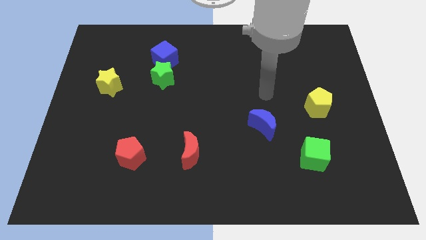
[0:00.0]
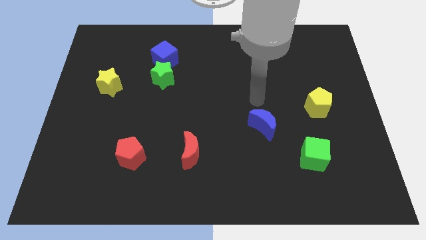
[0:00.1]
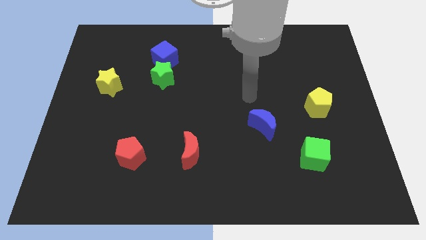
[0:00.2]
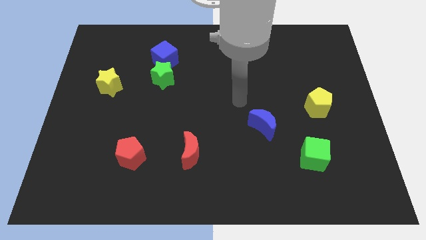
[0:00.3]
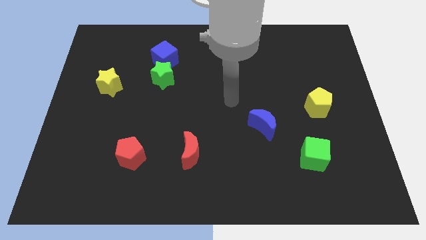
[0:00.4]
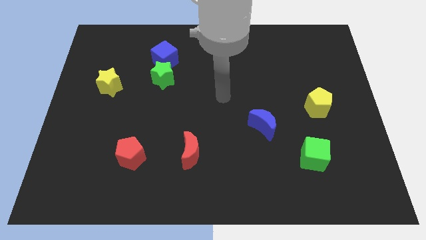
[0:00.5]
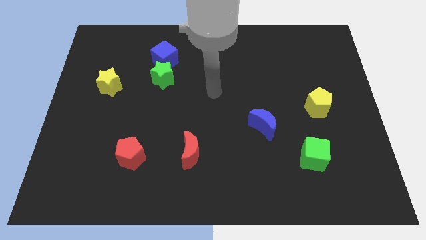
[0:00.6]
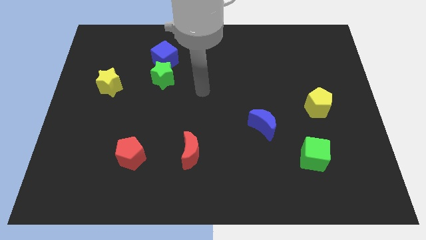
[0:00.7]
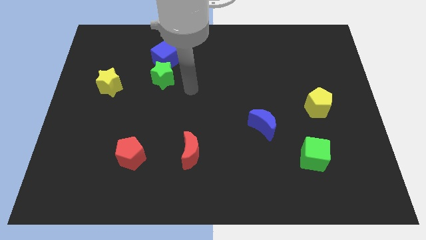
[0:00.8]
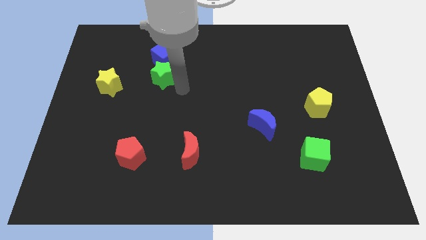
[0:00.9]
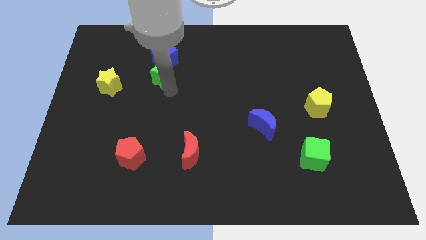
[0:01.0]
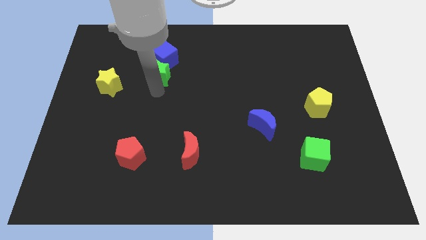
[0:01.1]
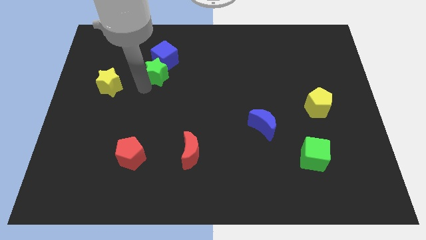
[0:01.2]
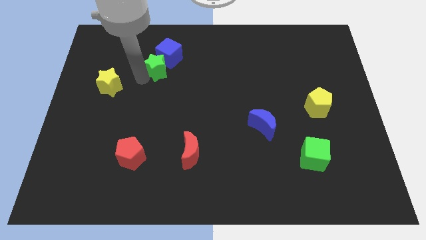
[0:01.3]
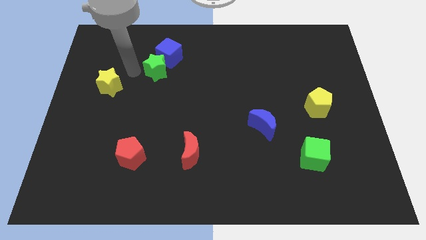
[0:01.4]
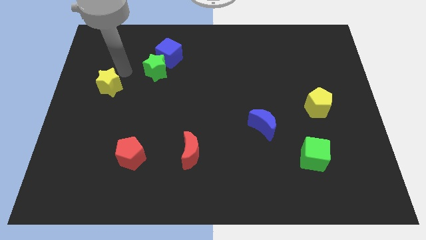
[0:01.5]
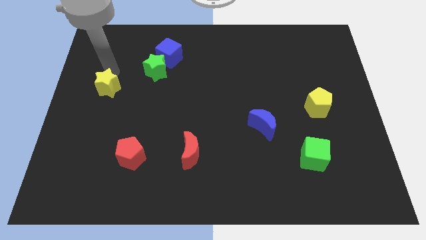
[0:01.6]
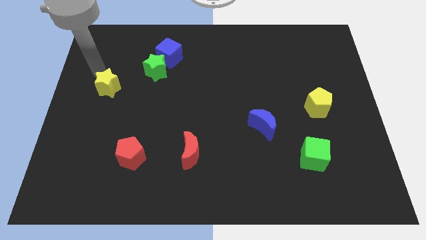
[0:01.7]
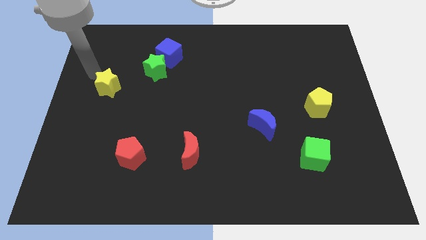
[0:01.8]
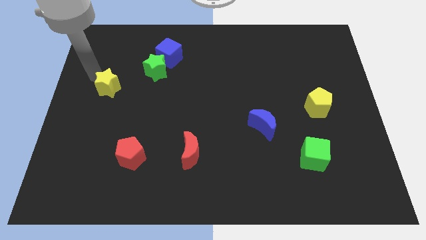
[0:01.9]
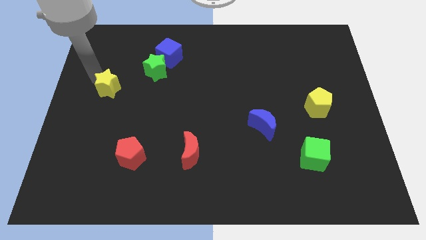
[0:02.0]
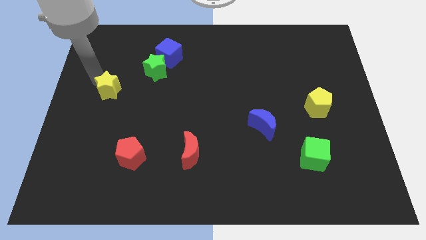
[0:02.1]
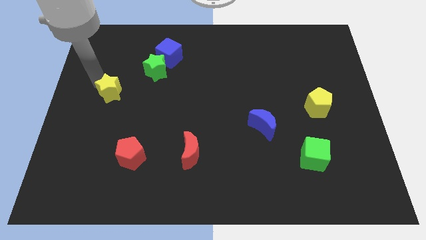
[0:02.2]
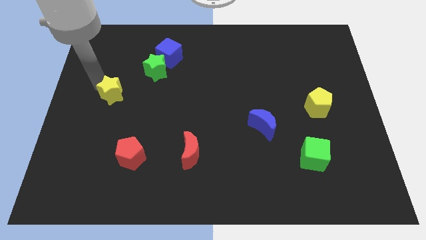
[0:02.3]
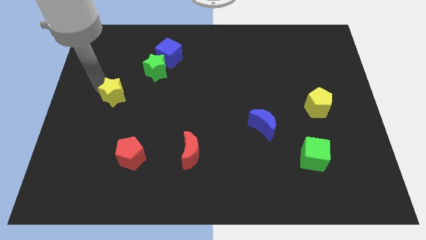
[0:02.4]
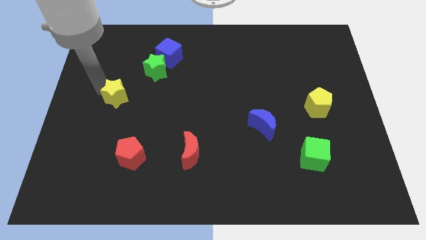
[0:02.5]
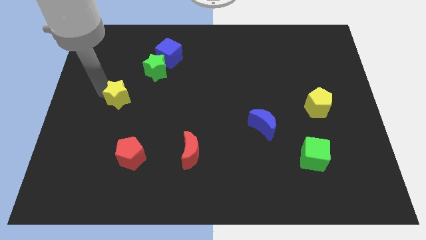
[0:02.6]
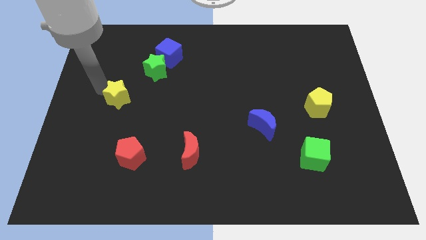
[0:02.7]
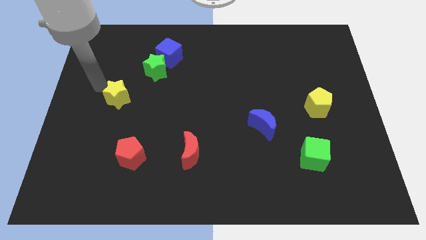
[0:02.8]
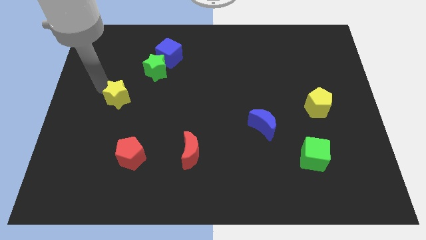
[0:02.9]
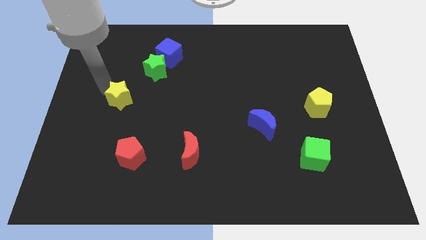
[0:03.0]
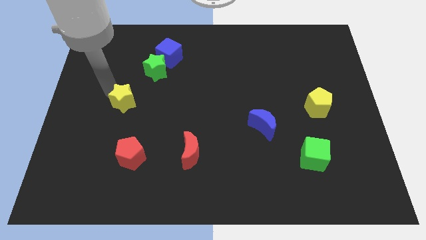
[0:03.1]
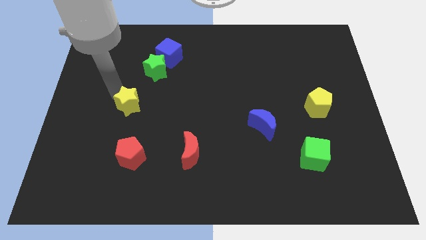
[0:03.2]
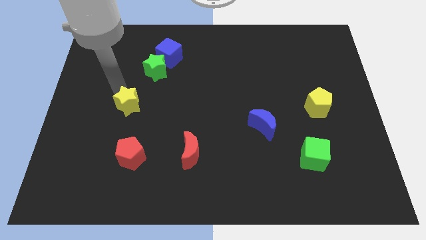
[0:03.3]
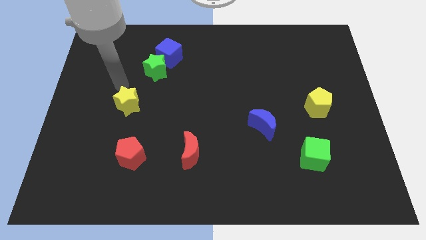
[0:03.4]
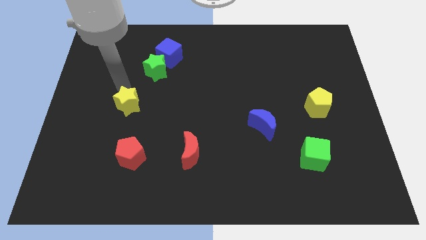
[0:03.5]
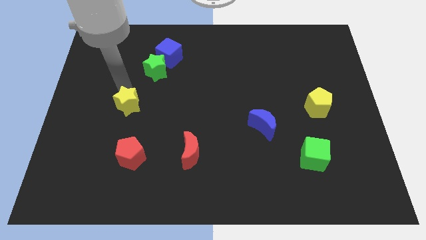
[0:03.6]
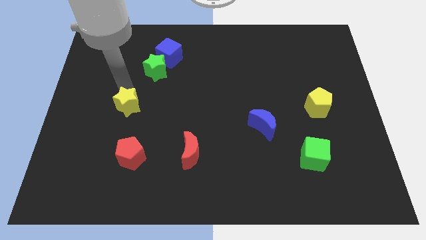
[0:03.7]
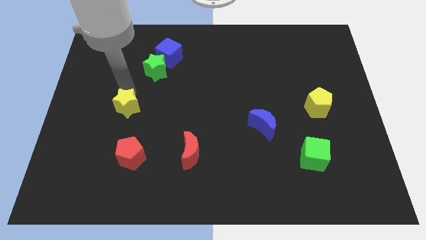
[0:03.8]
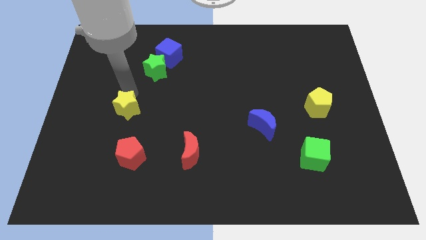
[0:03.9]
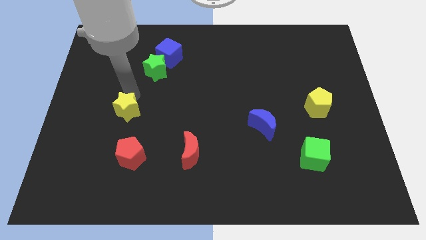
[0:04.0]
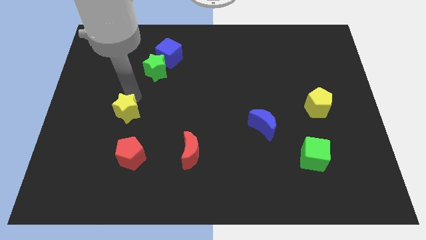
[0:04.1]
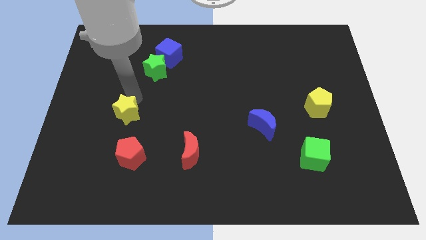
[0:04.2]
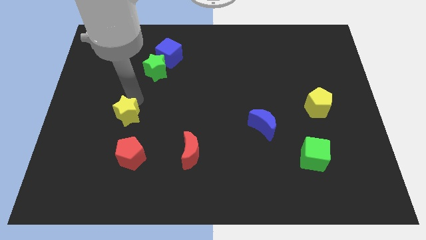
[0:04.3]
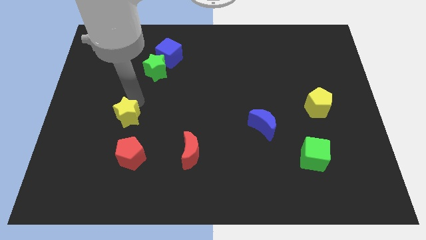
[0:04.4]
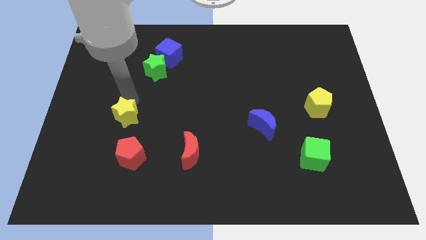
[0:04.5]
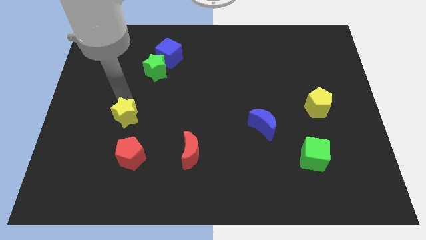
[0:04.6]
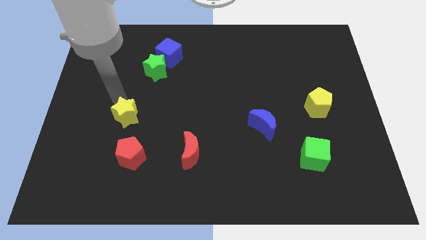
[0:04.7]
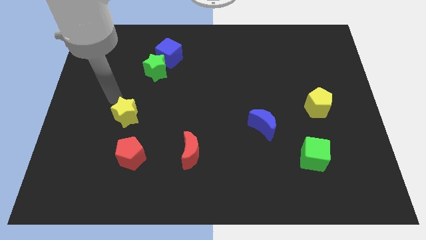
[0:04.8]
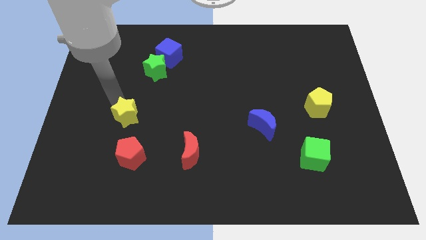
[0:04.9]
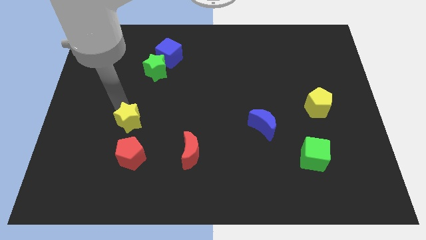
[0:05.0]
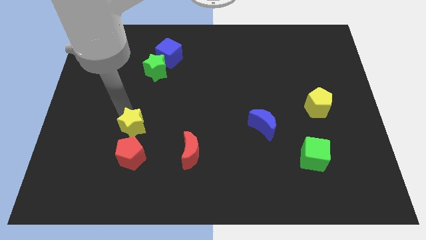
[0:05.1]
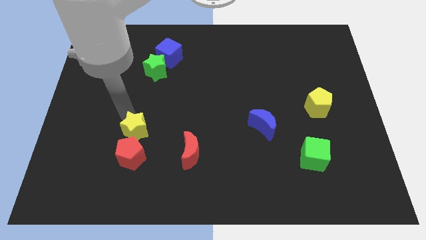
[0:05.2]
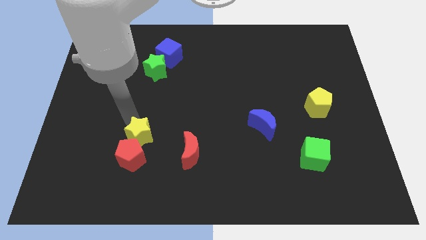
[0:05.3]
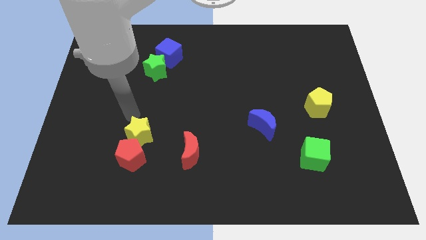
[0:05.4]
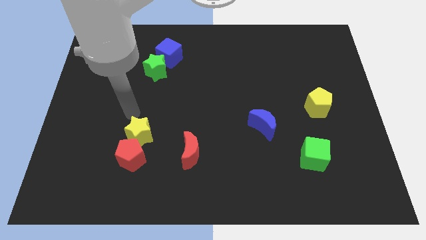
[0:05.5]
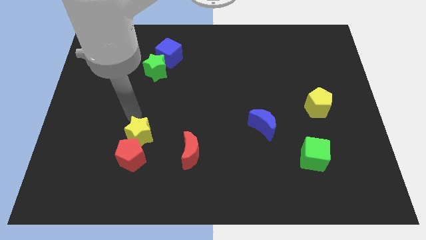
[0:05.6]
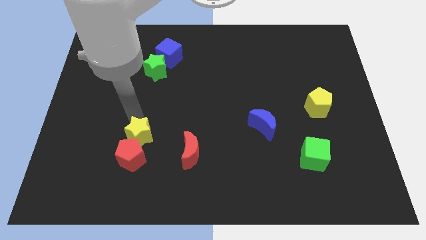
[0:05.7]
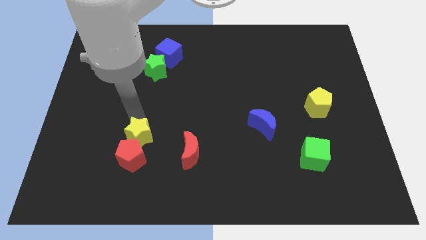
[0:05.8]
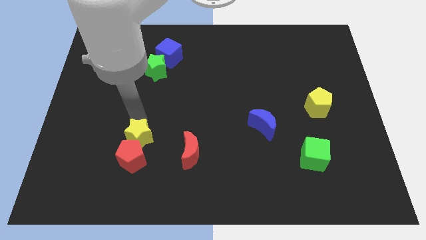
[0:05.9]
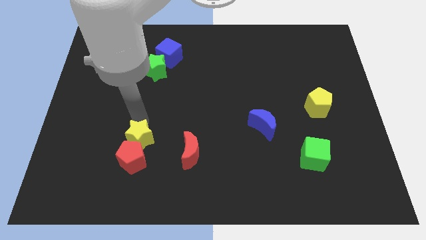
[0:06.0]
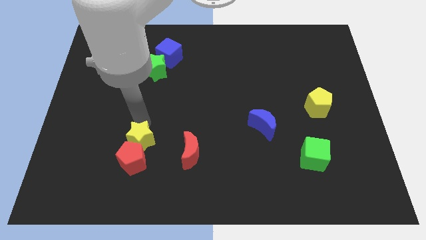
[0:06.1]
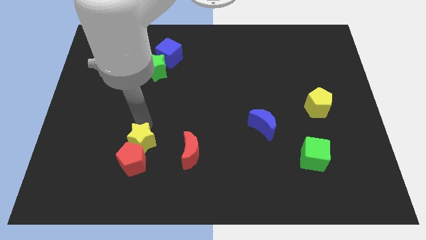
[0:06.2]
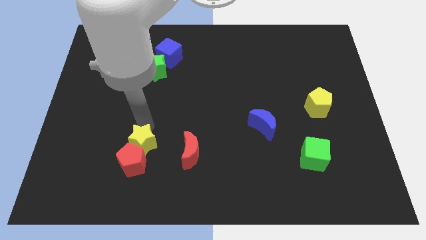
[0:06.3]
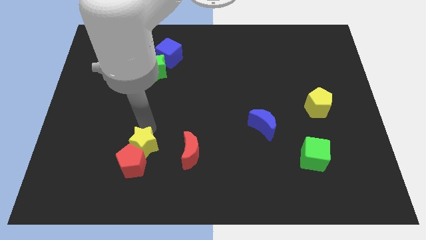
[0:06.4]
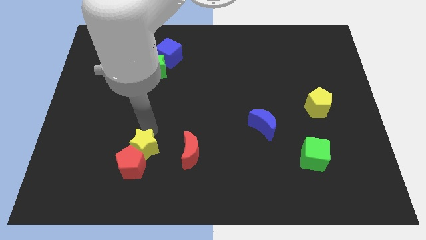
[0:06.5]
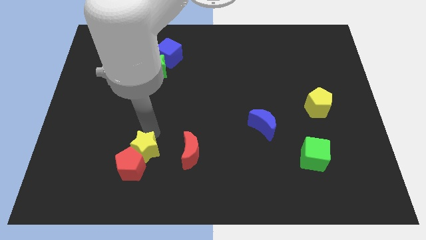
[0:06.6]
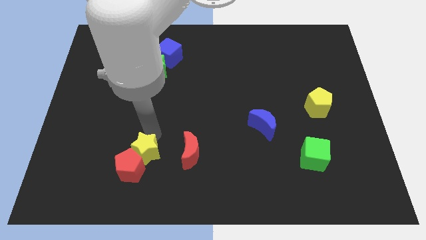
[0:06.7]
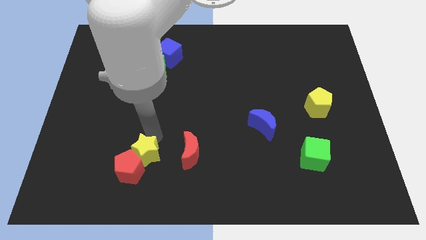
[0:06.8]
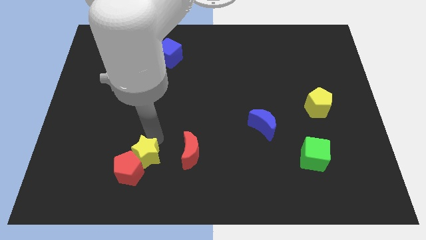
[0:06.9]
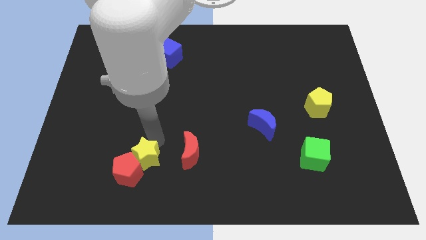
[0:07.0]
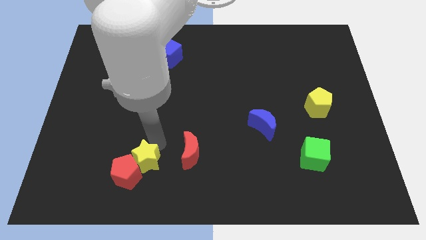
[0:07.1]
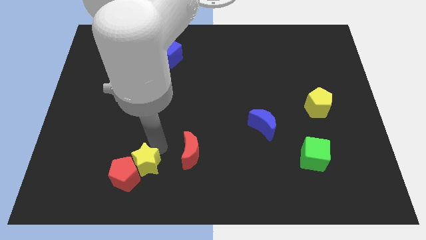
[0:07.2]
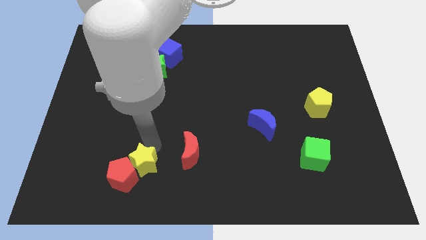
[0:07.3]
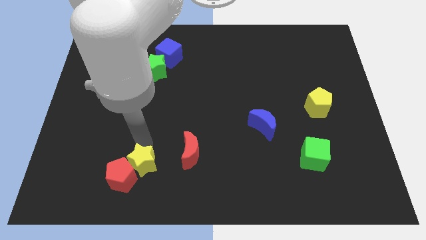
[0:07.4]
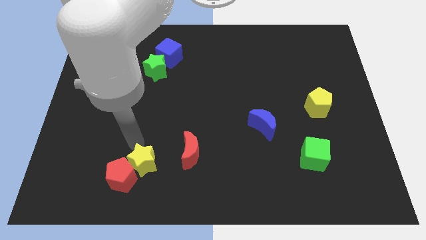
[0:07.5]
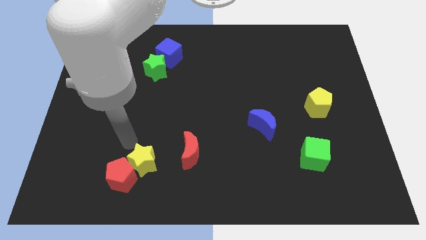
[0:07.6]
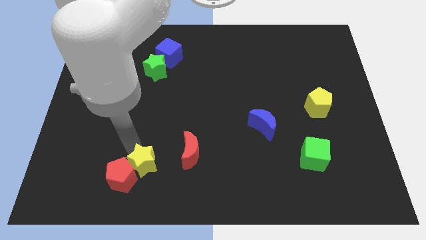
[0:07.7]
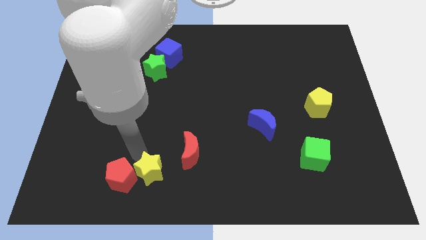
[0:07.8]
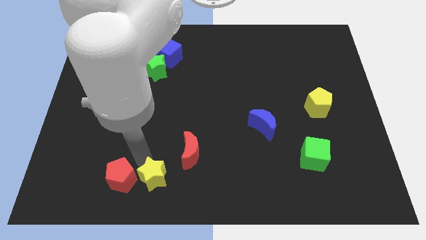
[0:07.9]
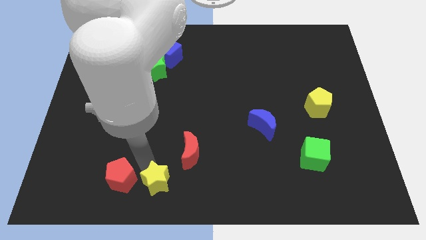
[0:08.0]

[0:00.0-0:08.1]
push the yellow star to the bottom side
